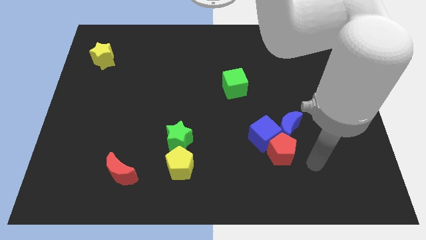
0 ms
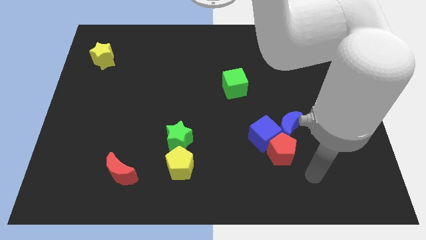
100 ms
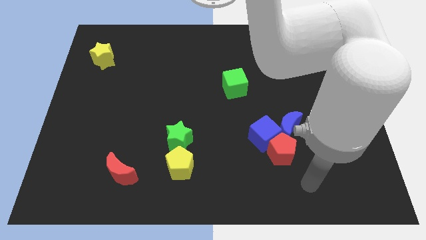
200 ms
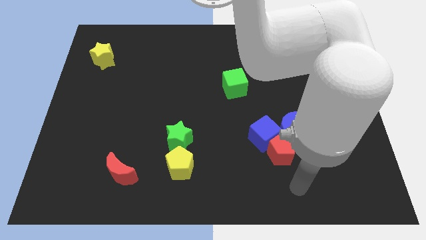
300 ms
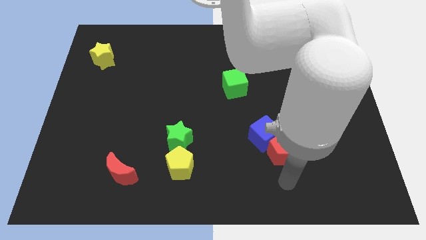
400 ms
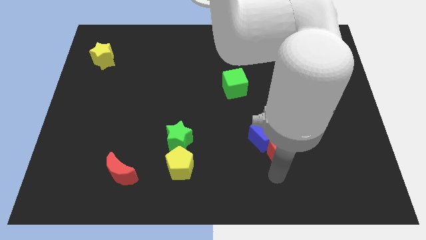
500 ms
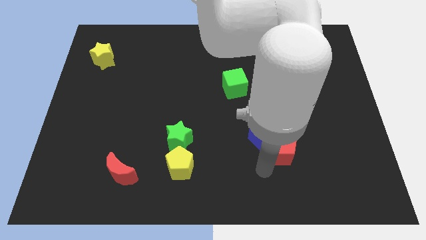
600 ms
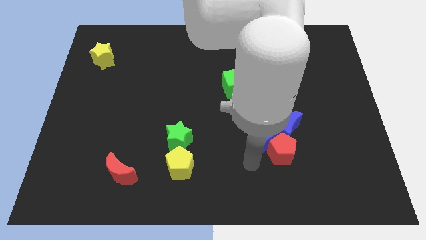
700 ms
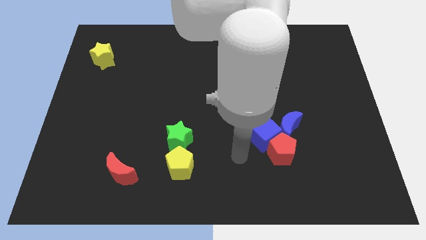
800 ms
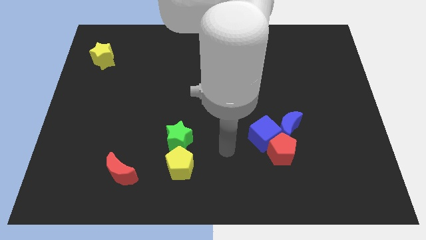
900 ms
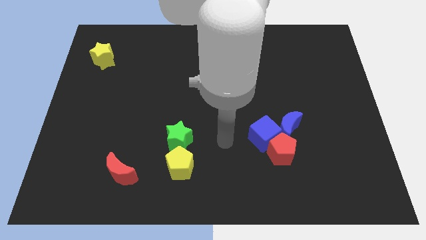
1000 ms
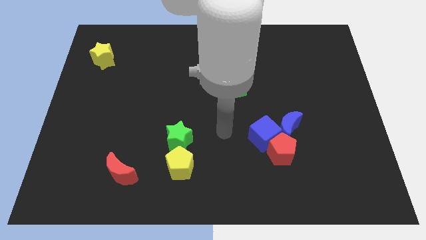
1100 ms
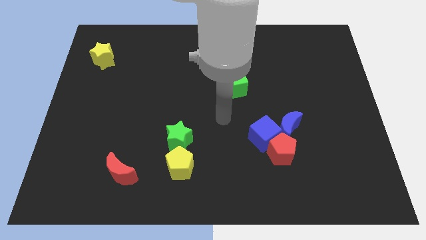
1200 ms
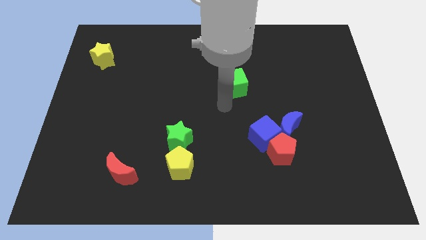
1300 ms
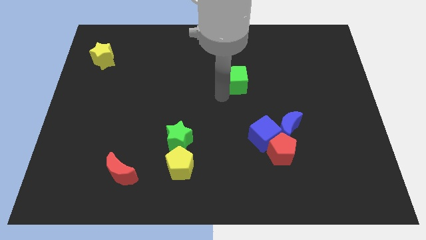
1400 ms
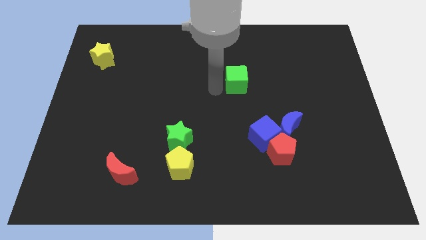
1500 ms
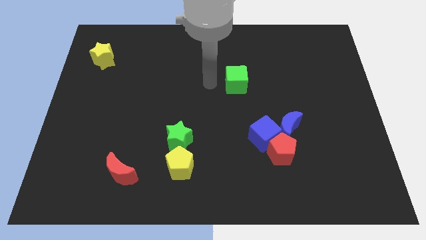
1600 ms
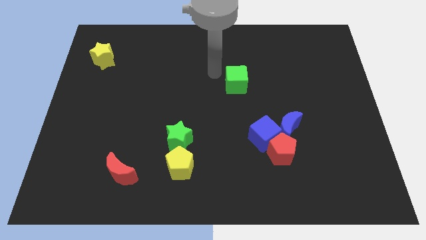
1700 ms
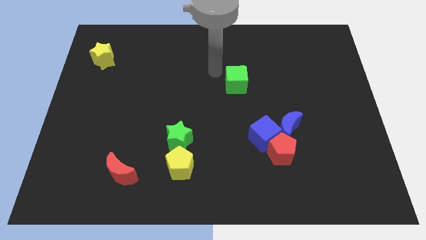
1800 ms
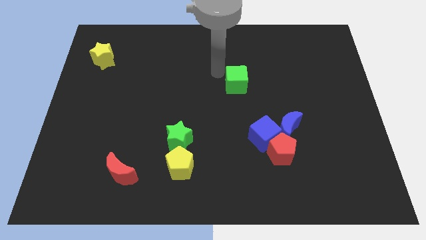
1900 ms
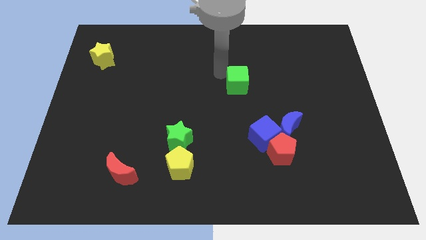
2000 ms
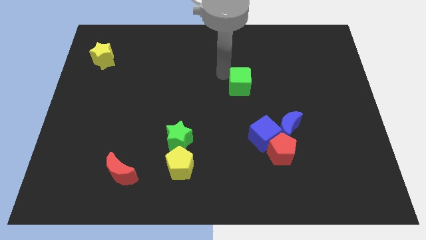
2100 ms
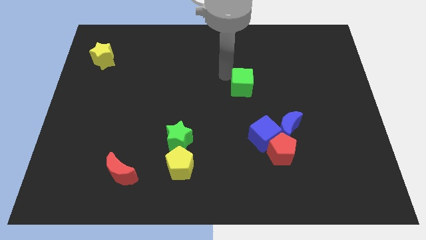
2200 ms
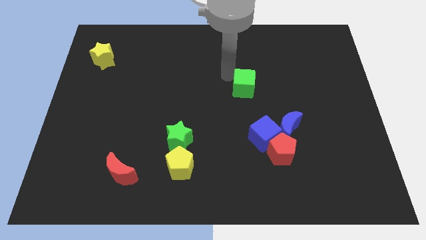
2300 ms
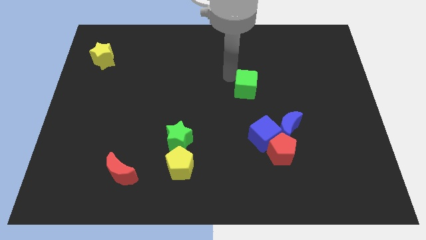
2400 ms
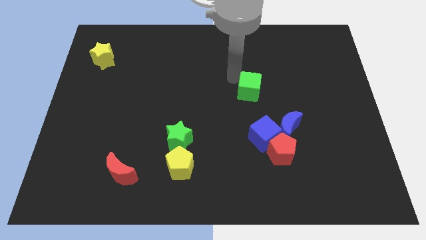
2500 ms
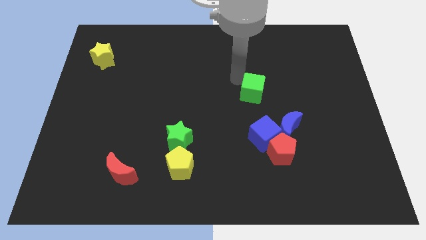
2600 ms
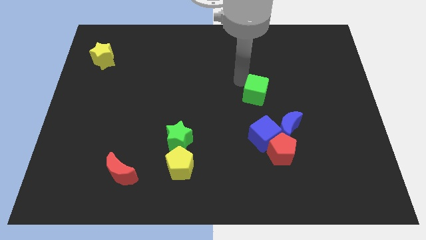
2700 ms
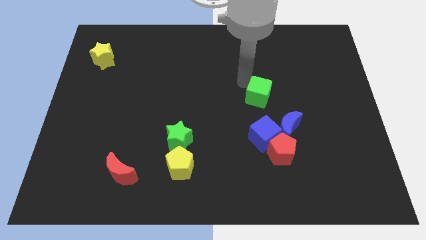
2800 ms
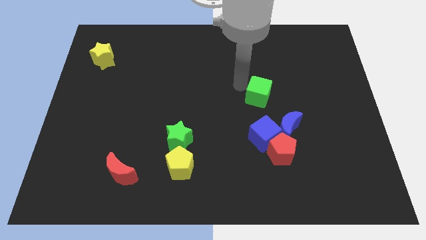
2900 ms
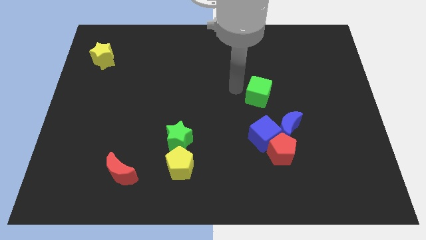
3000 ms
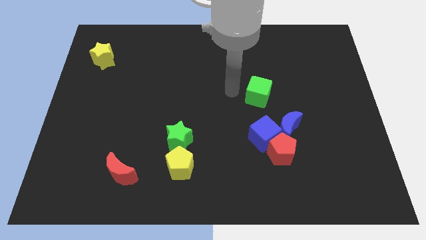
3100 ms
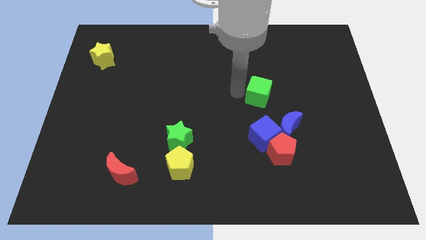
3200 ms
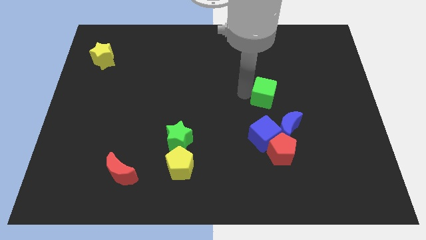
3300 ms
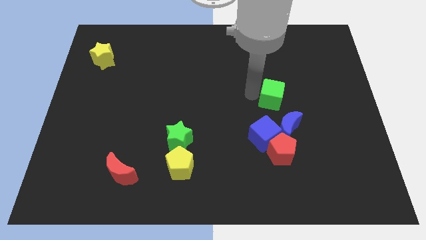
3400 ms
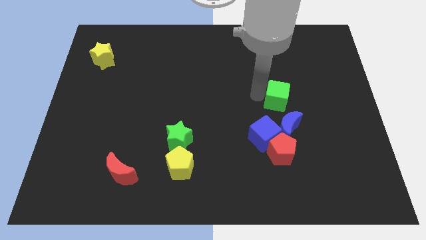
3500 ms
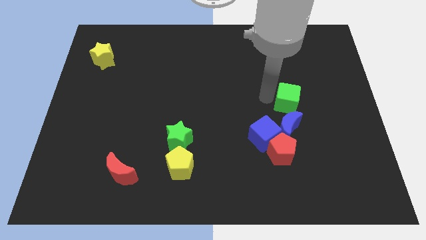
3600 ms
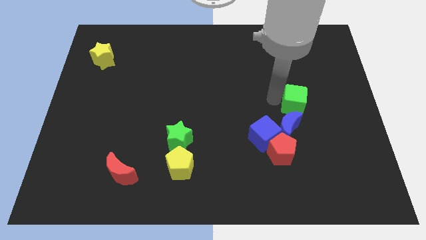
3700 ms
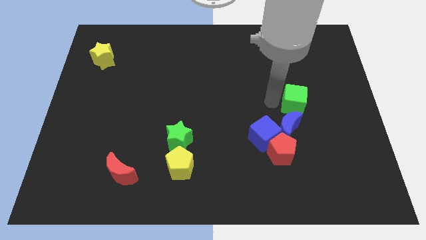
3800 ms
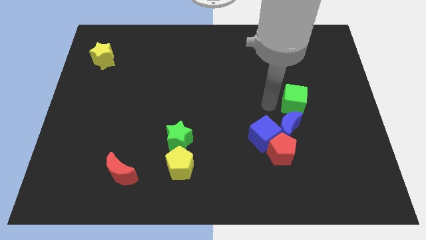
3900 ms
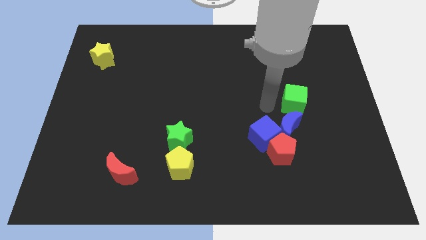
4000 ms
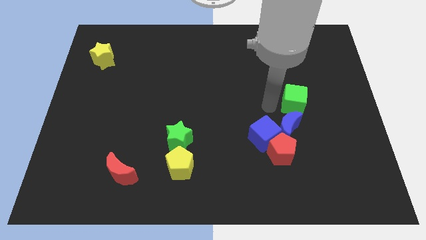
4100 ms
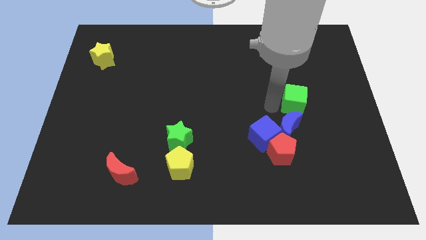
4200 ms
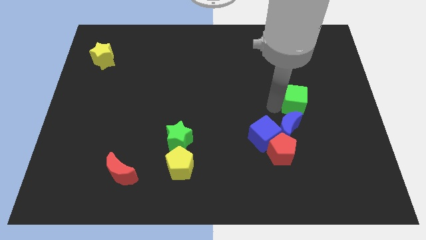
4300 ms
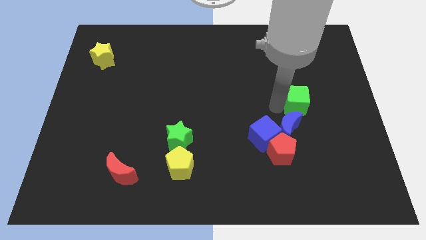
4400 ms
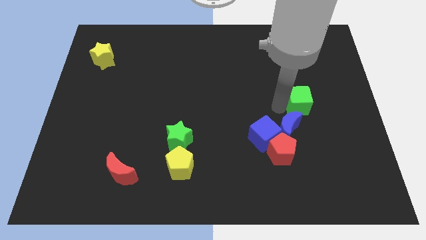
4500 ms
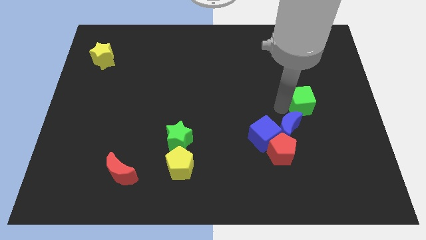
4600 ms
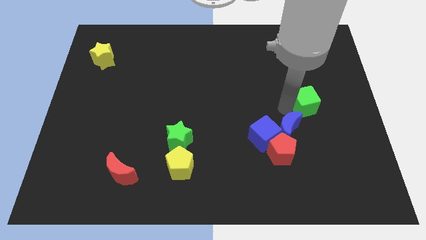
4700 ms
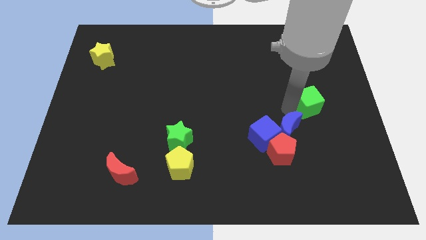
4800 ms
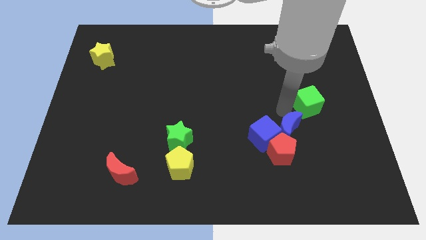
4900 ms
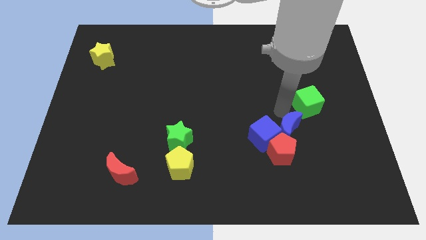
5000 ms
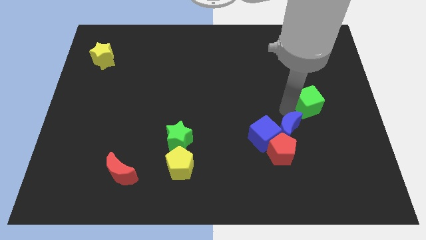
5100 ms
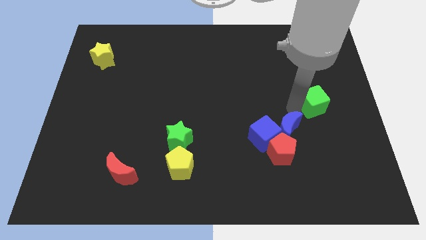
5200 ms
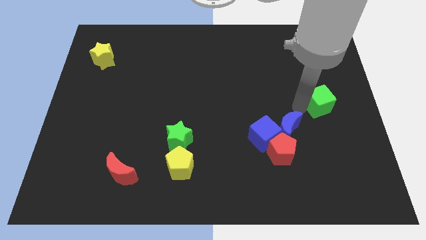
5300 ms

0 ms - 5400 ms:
move the green cube to the right side of the board

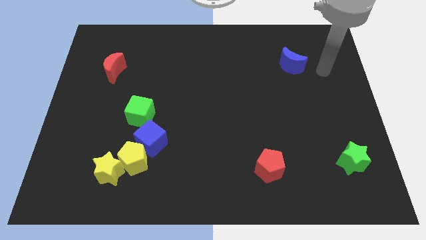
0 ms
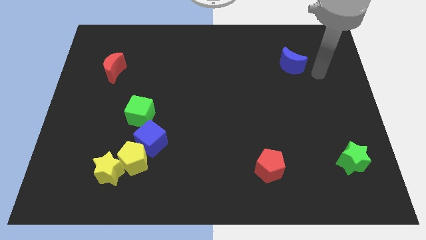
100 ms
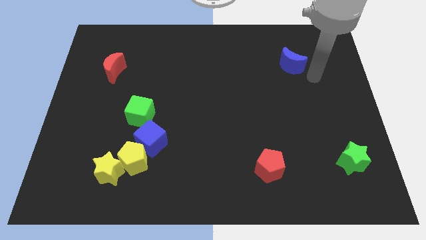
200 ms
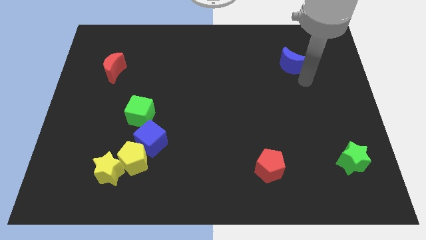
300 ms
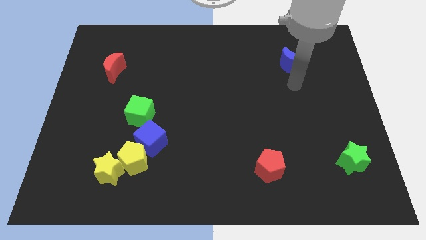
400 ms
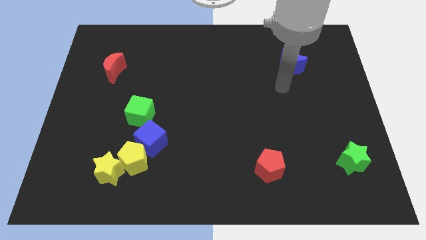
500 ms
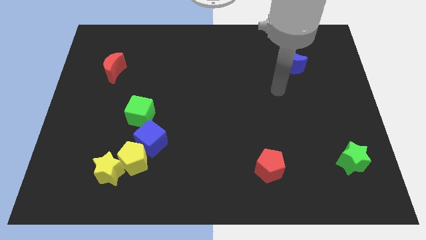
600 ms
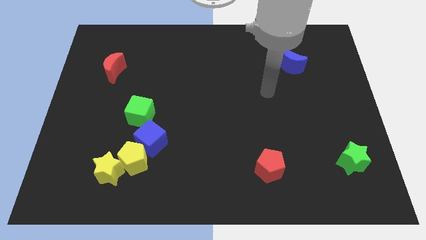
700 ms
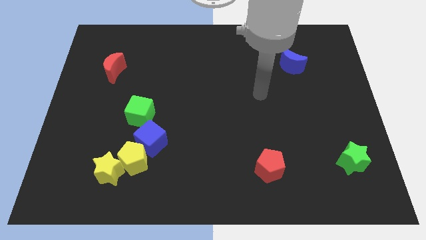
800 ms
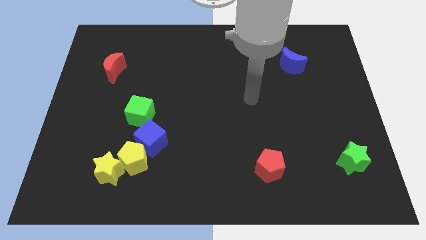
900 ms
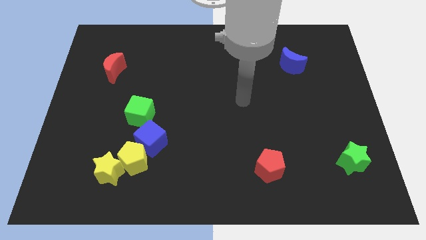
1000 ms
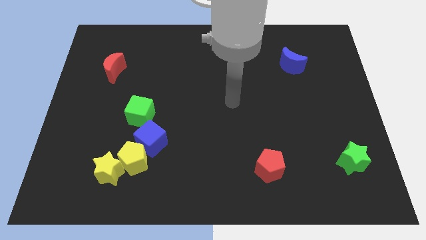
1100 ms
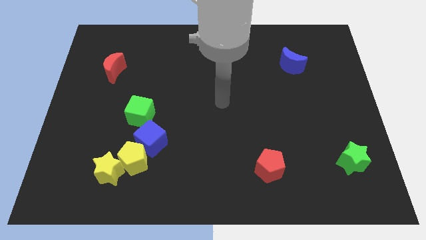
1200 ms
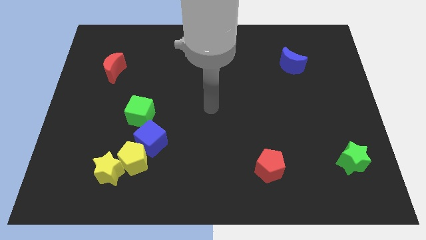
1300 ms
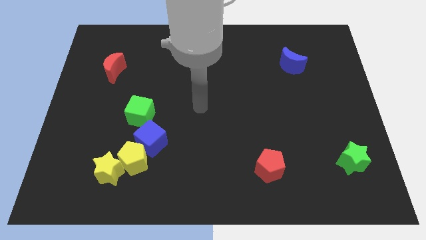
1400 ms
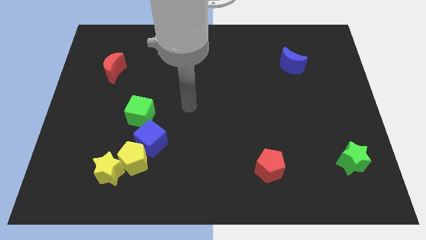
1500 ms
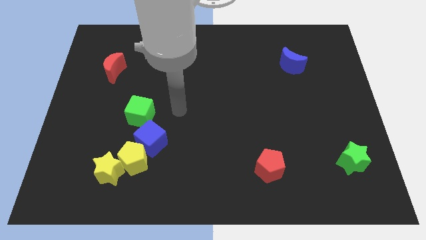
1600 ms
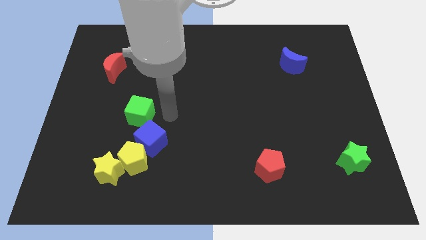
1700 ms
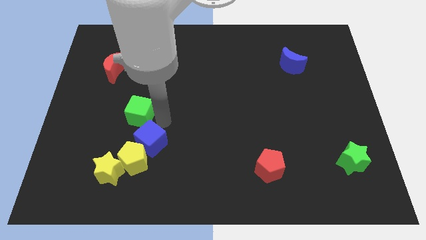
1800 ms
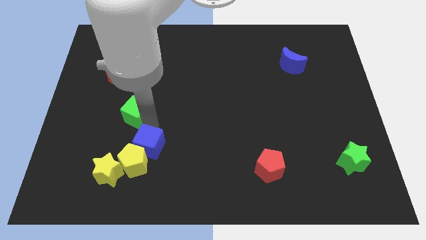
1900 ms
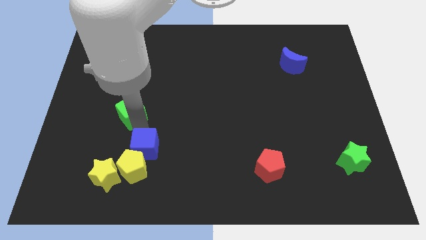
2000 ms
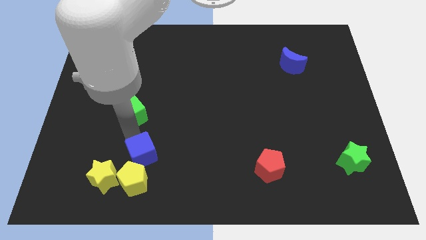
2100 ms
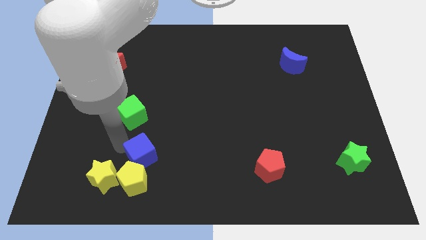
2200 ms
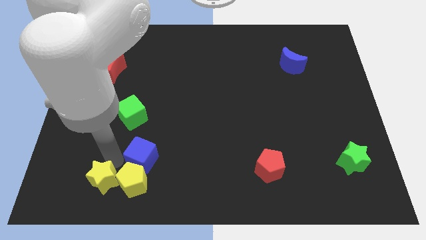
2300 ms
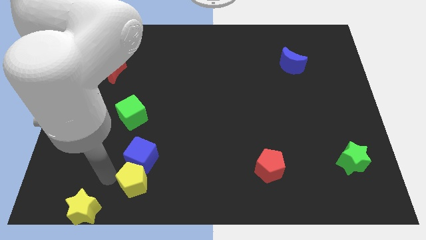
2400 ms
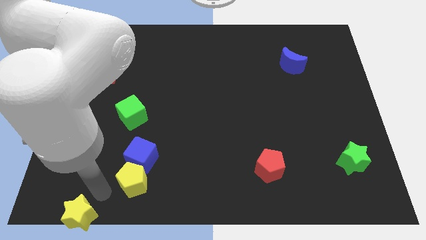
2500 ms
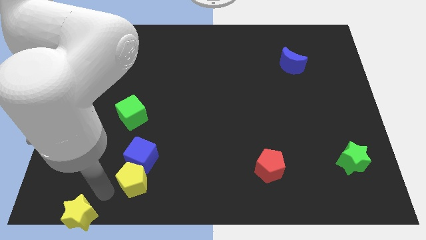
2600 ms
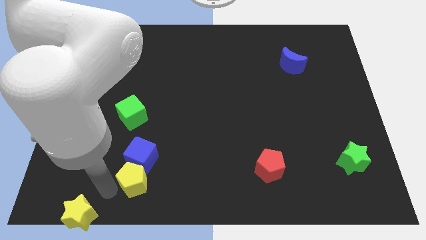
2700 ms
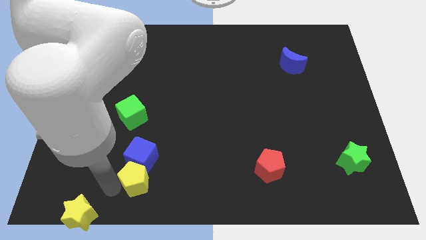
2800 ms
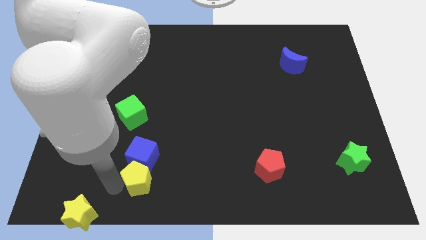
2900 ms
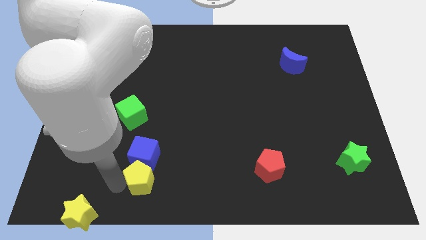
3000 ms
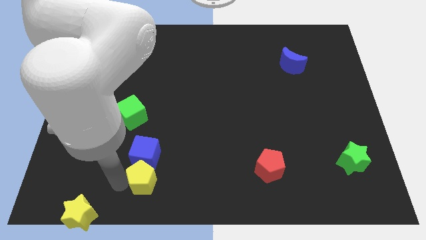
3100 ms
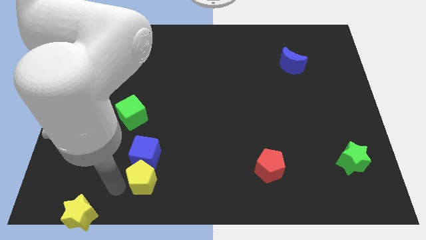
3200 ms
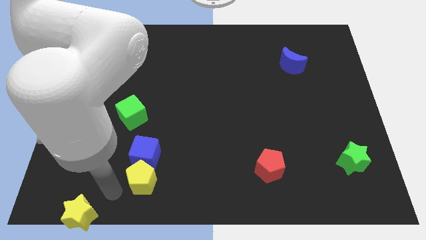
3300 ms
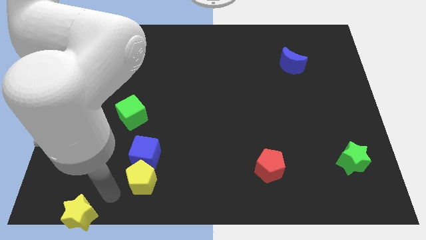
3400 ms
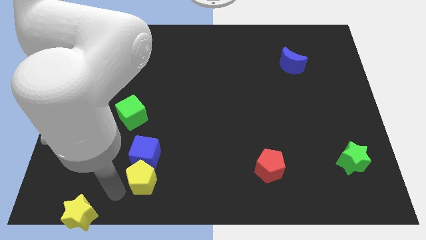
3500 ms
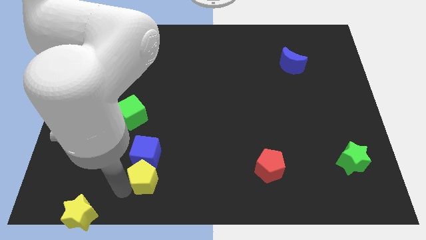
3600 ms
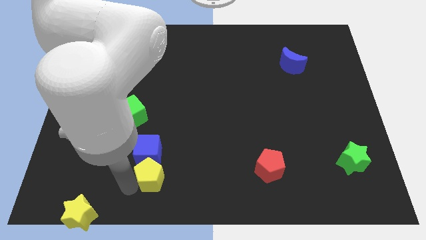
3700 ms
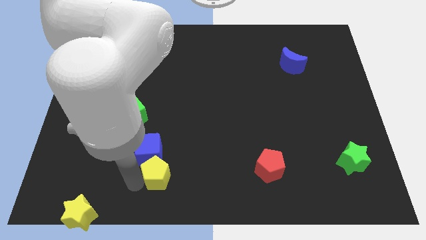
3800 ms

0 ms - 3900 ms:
put the yellow pentagon to the bottom
